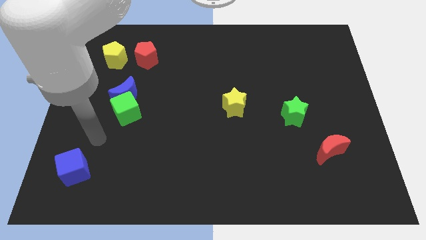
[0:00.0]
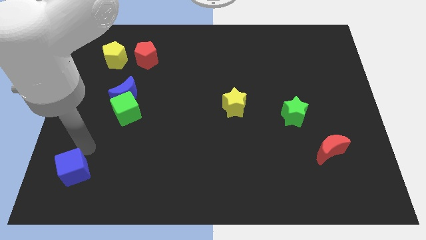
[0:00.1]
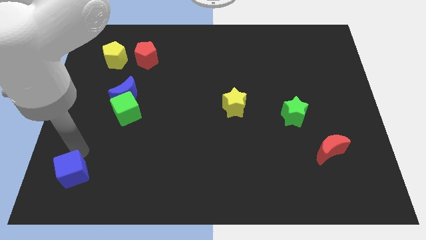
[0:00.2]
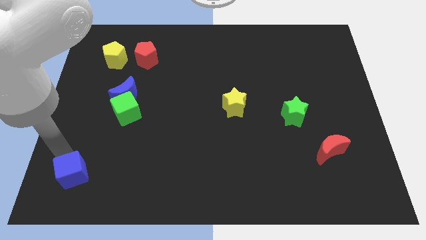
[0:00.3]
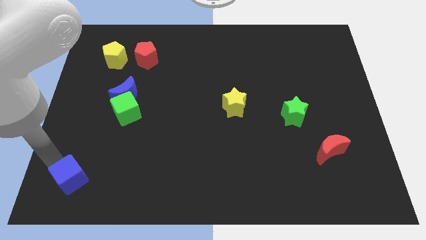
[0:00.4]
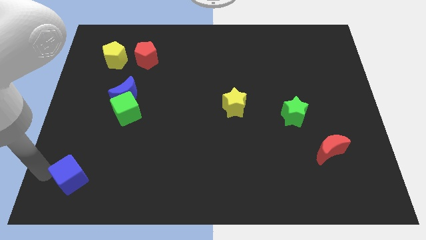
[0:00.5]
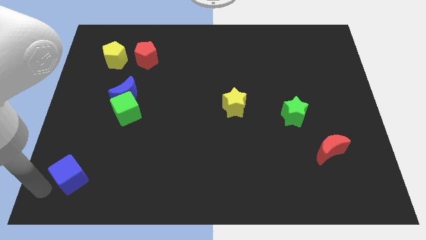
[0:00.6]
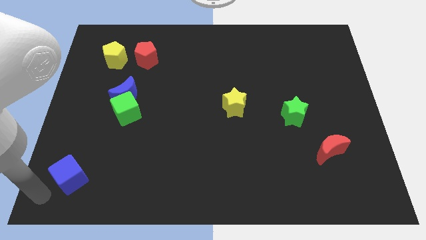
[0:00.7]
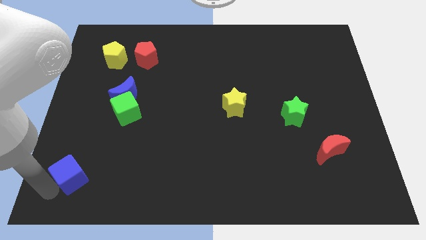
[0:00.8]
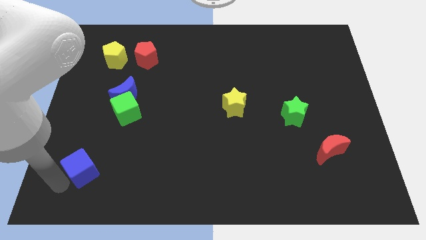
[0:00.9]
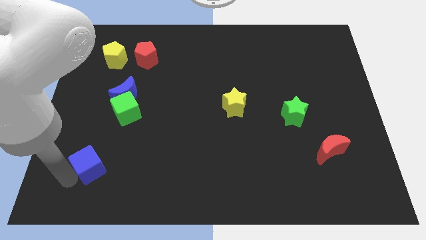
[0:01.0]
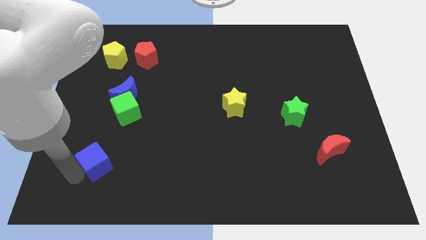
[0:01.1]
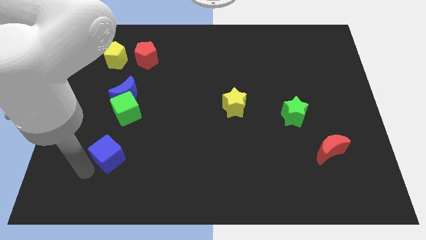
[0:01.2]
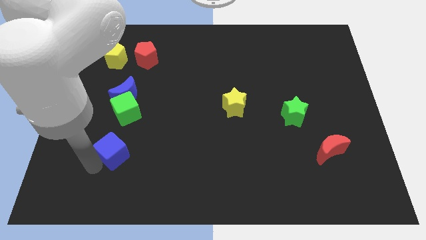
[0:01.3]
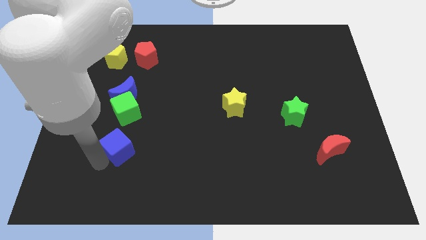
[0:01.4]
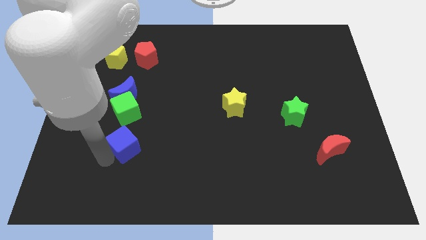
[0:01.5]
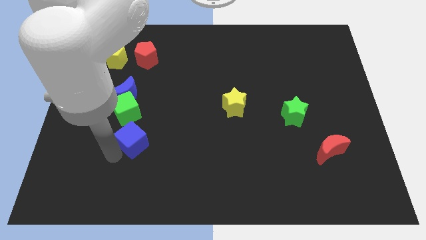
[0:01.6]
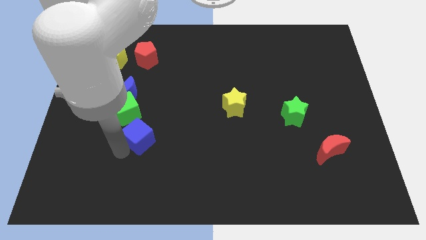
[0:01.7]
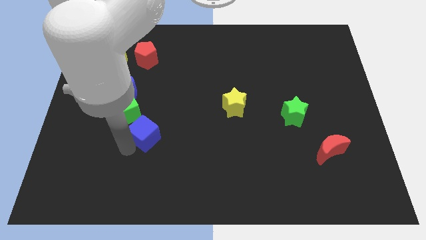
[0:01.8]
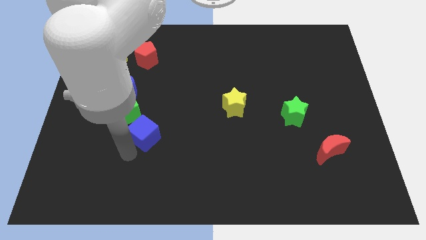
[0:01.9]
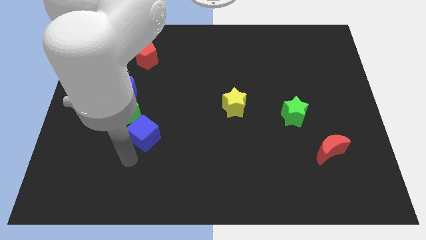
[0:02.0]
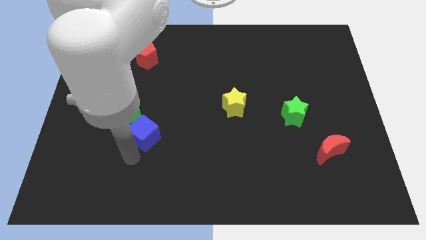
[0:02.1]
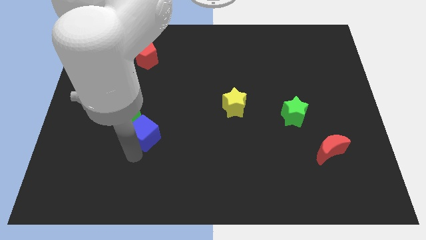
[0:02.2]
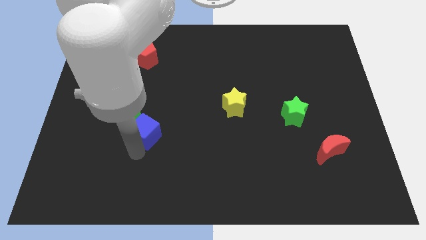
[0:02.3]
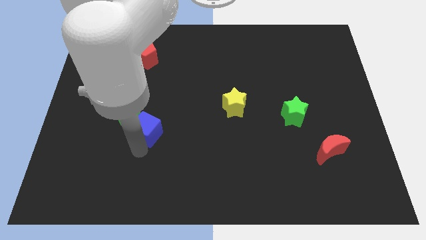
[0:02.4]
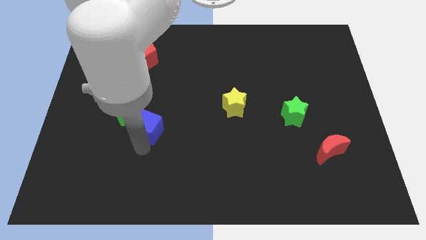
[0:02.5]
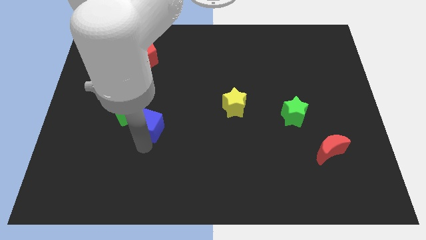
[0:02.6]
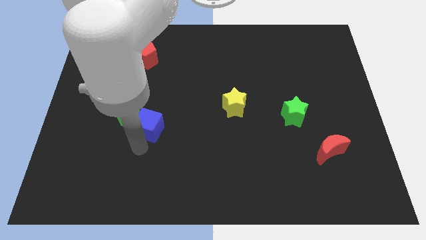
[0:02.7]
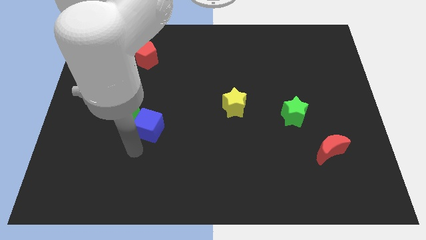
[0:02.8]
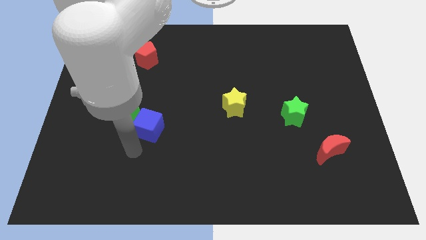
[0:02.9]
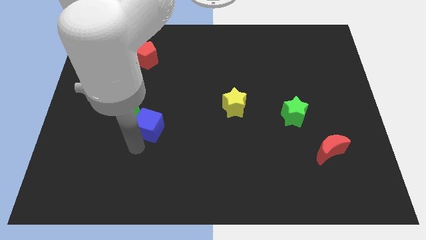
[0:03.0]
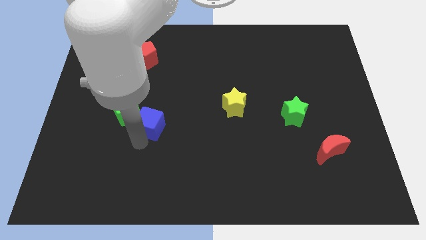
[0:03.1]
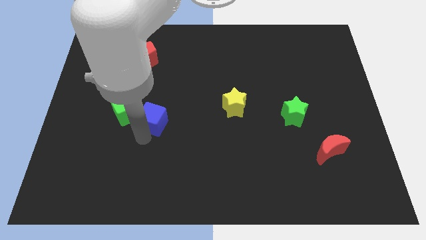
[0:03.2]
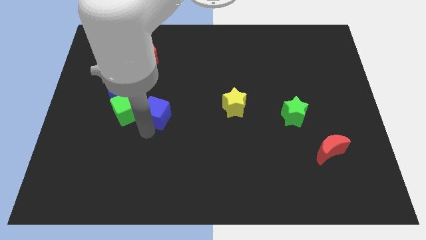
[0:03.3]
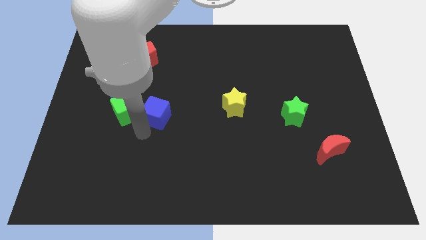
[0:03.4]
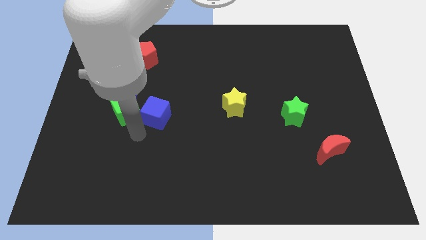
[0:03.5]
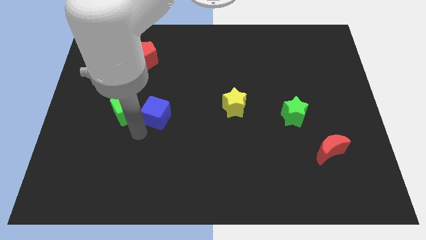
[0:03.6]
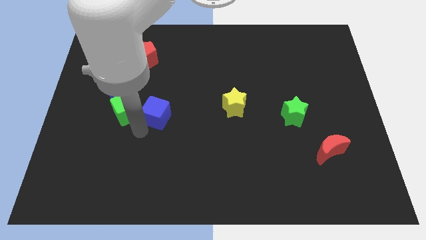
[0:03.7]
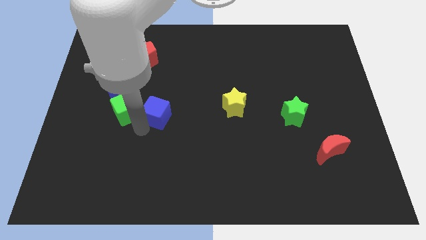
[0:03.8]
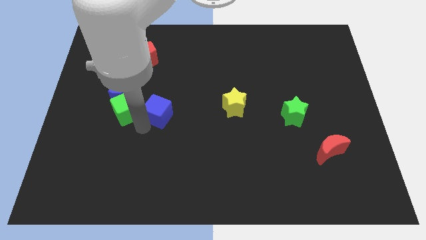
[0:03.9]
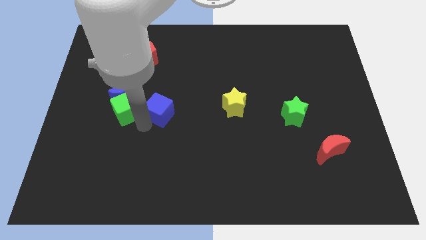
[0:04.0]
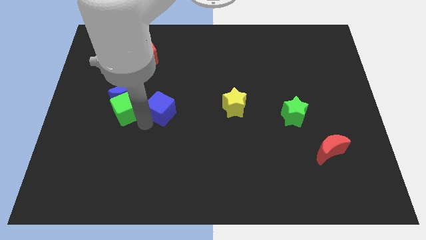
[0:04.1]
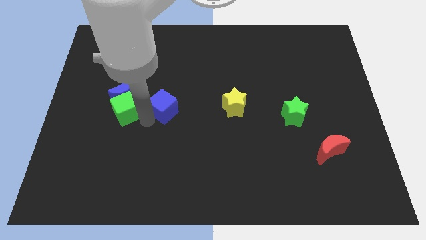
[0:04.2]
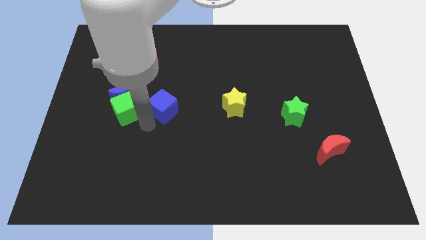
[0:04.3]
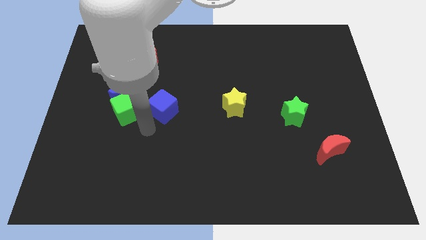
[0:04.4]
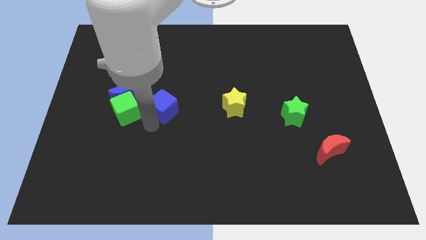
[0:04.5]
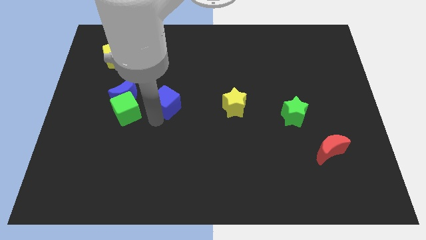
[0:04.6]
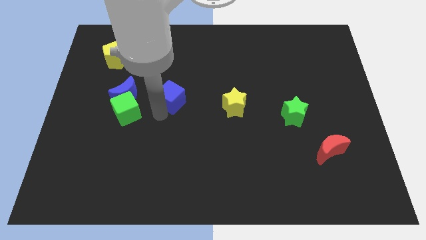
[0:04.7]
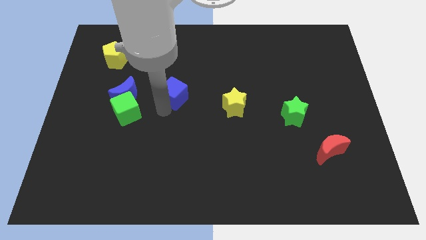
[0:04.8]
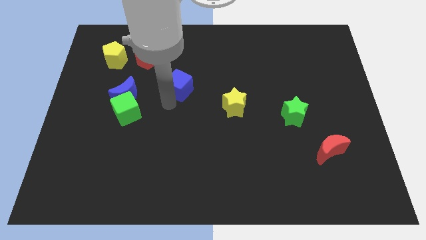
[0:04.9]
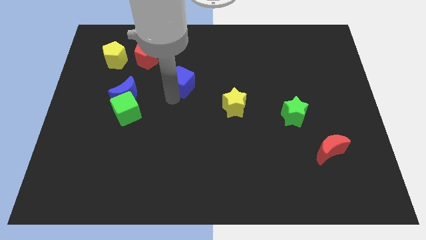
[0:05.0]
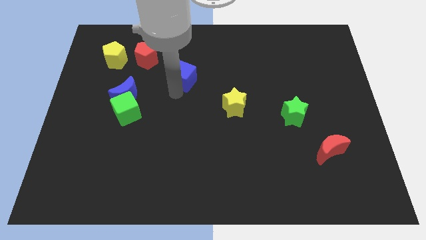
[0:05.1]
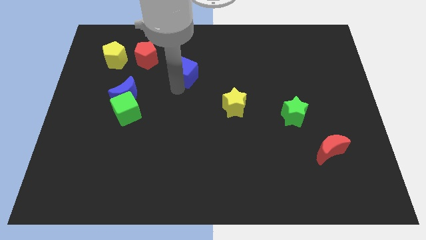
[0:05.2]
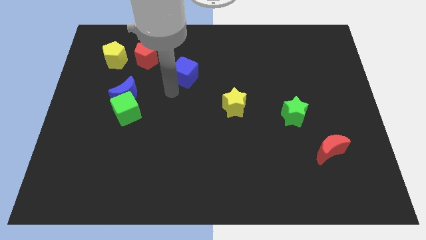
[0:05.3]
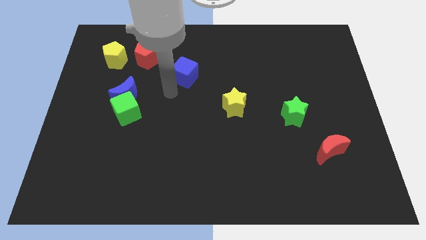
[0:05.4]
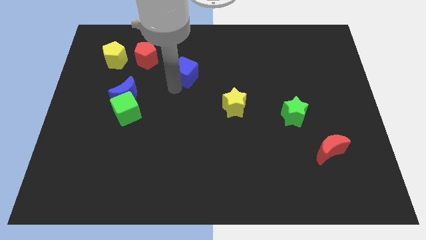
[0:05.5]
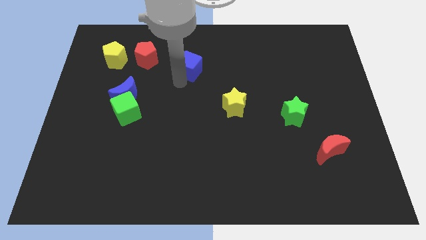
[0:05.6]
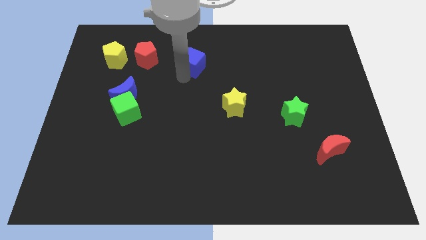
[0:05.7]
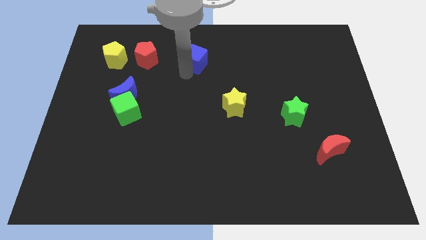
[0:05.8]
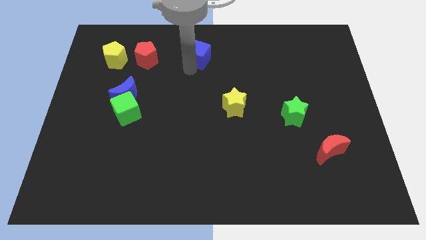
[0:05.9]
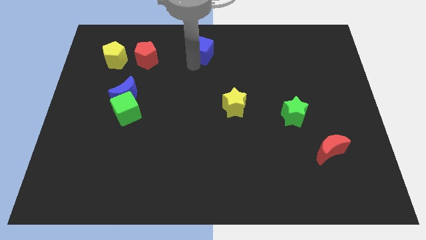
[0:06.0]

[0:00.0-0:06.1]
slide the blue cube to the towards your base
